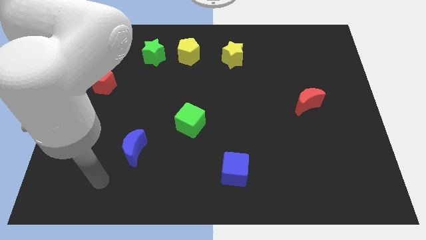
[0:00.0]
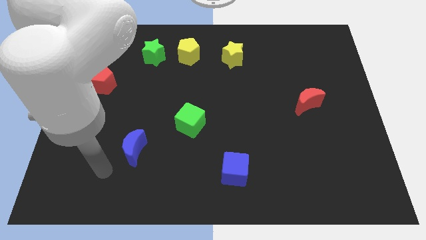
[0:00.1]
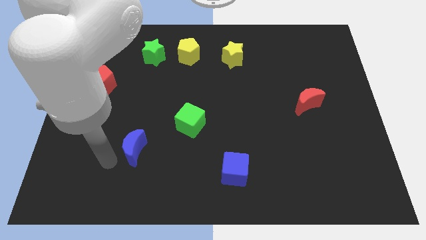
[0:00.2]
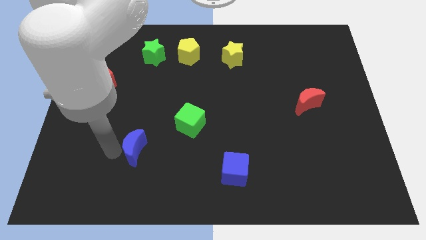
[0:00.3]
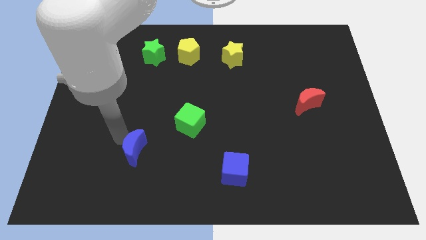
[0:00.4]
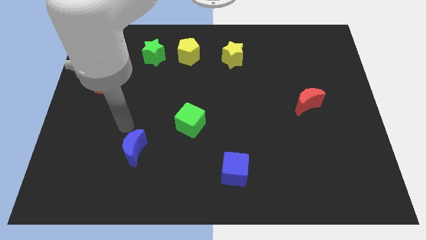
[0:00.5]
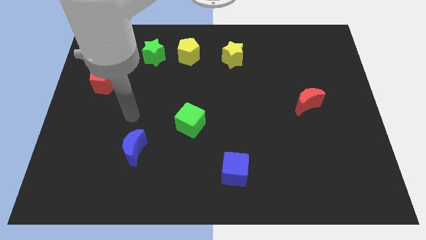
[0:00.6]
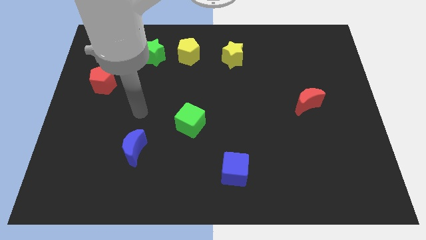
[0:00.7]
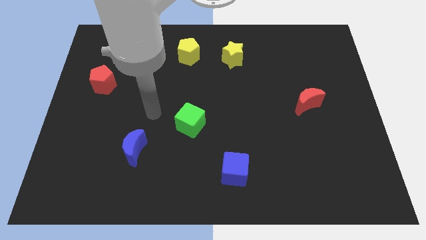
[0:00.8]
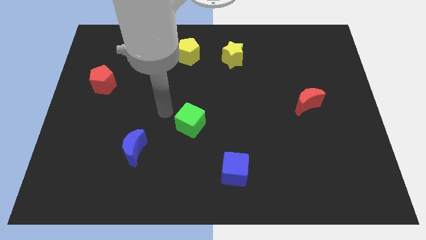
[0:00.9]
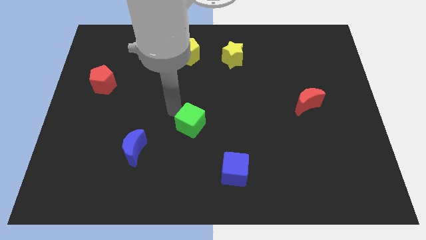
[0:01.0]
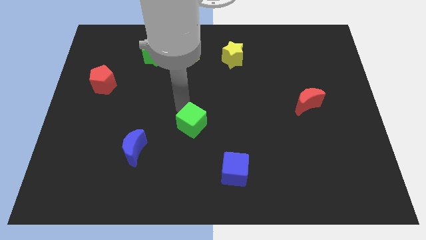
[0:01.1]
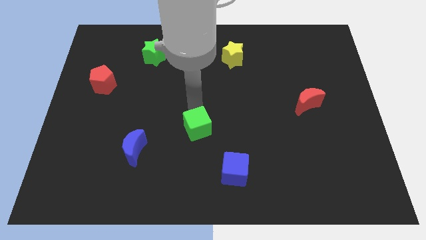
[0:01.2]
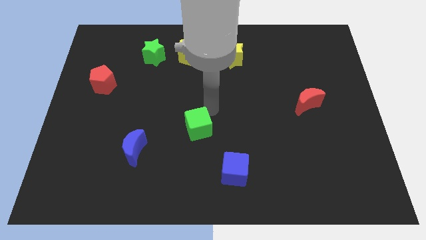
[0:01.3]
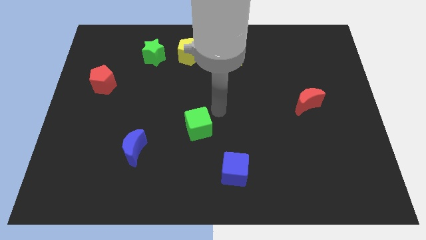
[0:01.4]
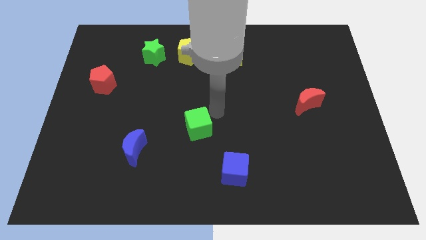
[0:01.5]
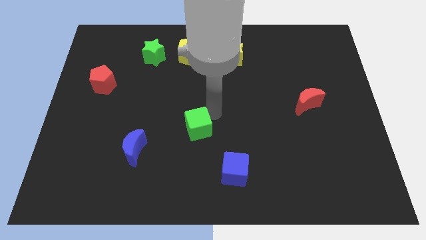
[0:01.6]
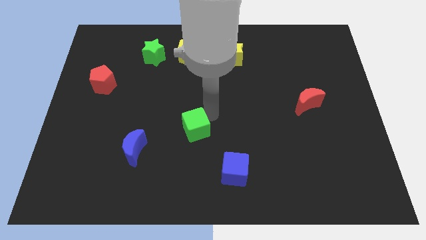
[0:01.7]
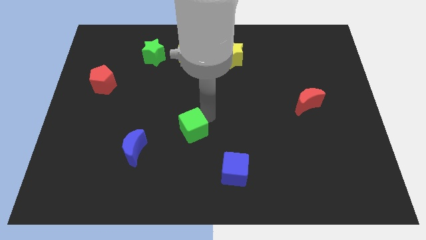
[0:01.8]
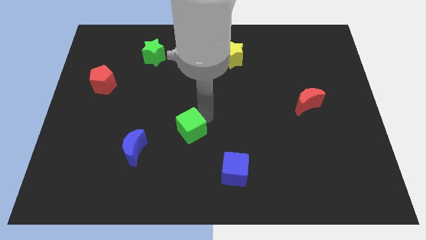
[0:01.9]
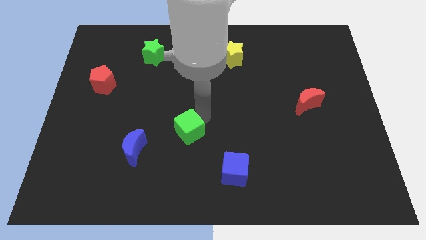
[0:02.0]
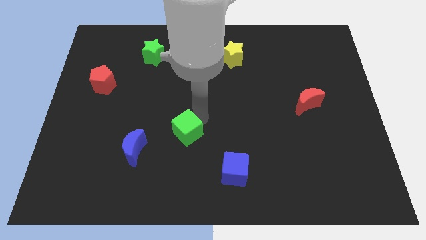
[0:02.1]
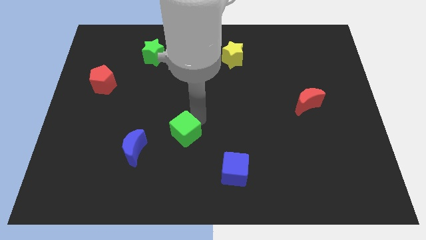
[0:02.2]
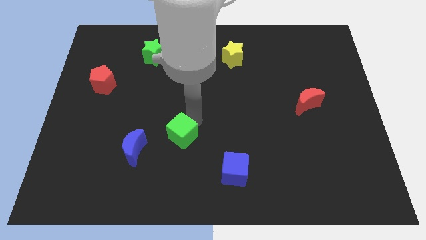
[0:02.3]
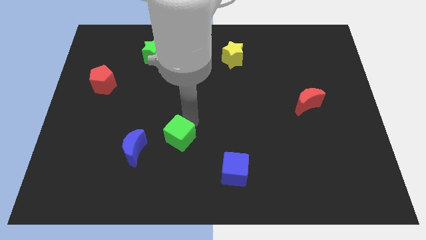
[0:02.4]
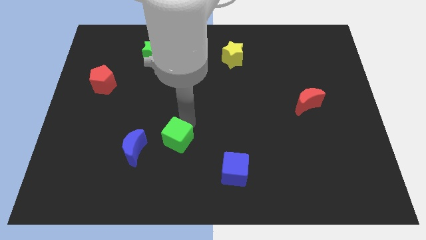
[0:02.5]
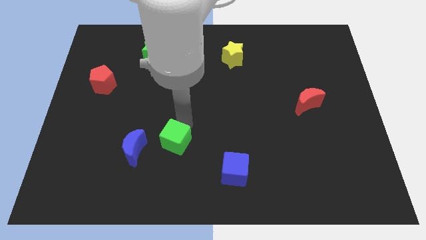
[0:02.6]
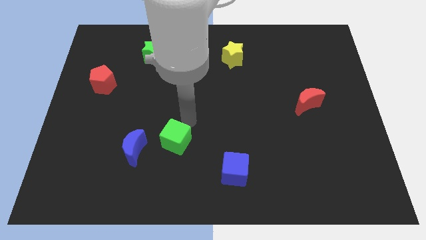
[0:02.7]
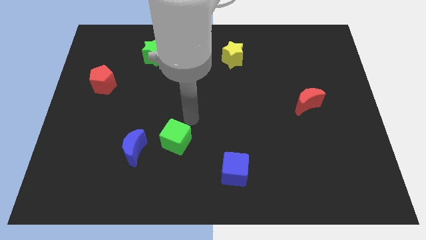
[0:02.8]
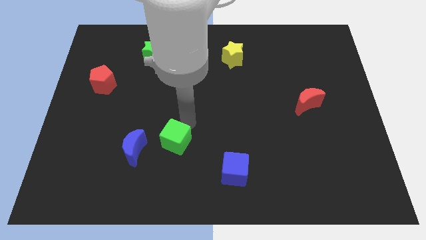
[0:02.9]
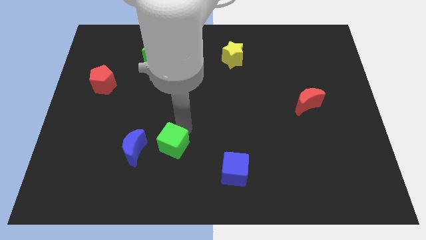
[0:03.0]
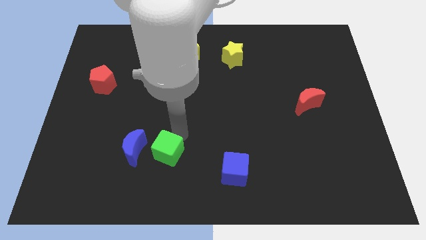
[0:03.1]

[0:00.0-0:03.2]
slightly slide the green cube downwards and left diagonally

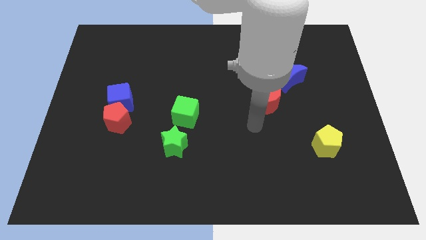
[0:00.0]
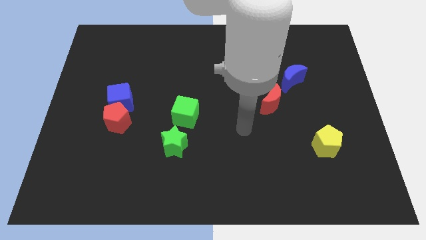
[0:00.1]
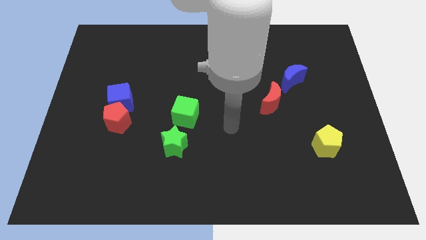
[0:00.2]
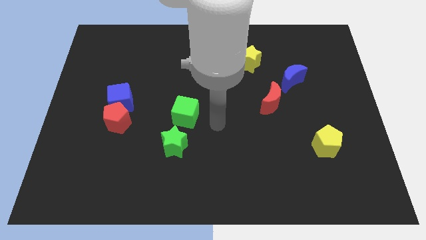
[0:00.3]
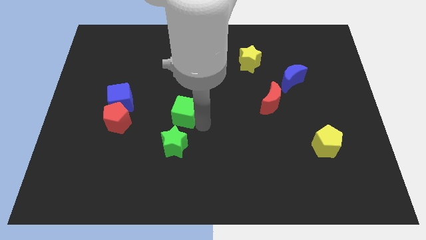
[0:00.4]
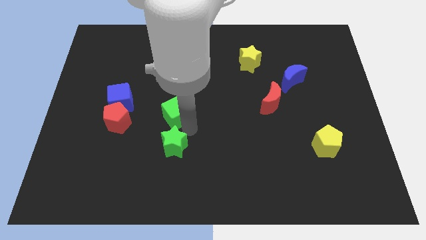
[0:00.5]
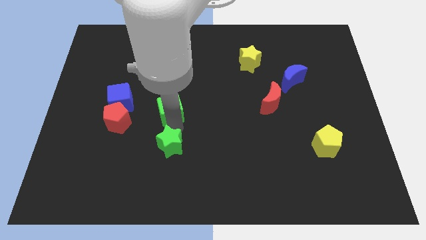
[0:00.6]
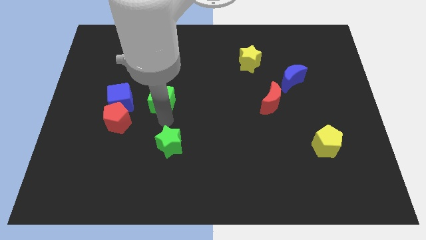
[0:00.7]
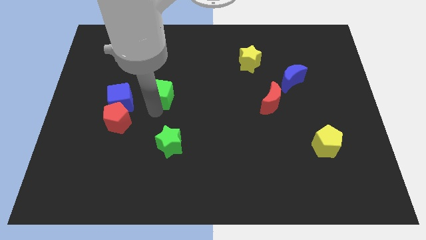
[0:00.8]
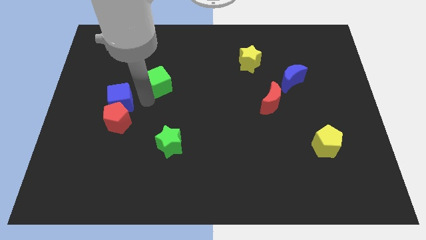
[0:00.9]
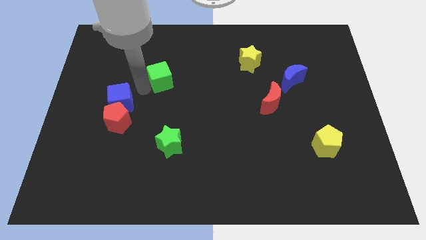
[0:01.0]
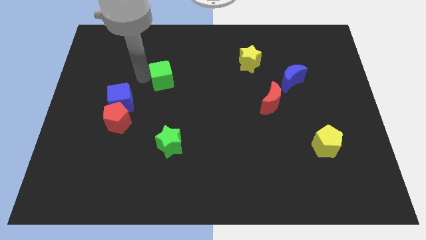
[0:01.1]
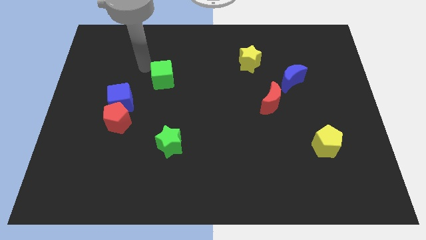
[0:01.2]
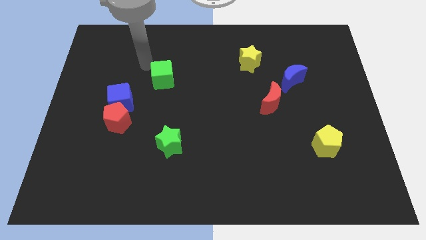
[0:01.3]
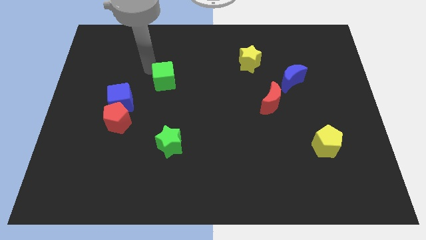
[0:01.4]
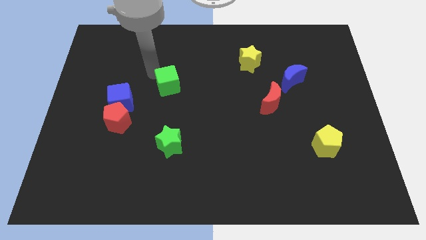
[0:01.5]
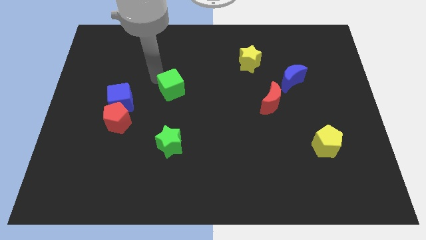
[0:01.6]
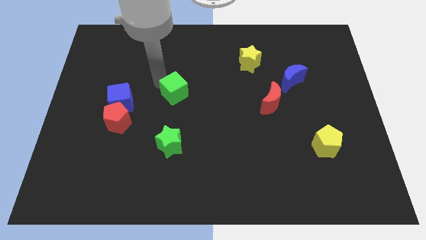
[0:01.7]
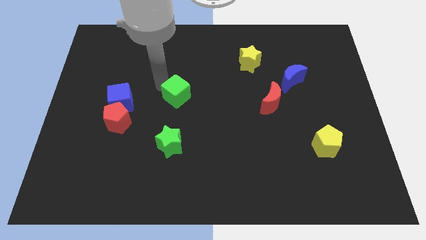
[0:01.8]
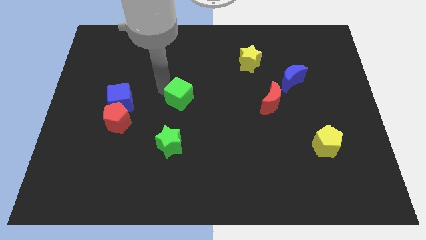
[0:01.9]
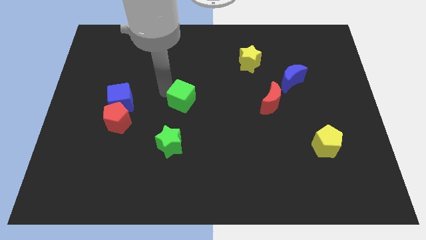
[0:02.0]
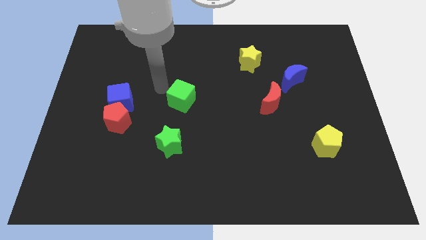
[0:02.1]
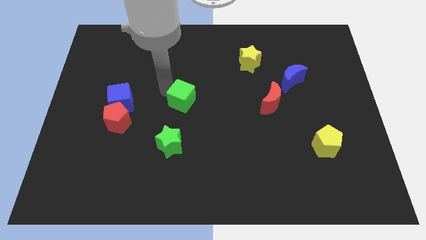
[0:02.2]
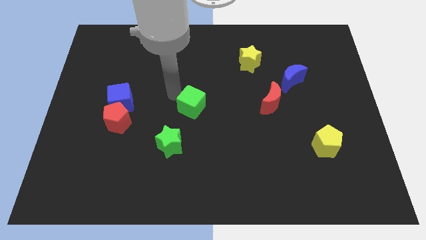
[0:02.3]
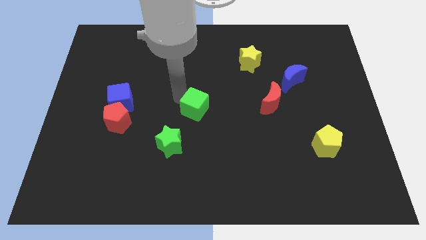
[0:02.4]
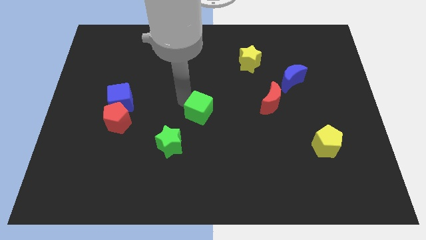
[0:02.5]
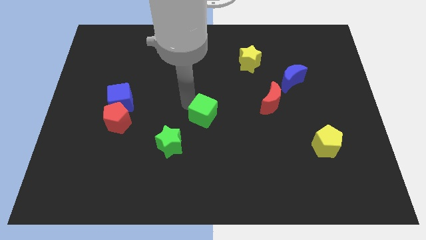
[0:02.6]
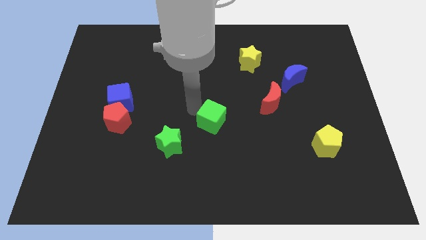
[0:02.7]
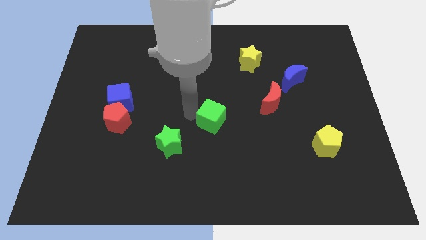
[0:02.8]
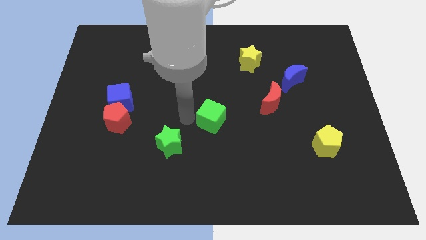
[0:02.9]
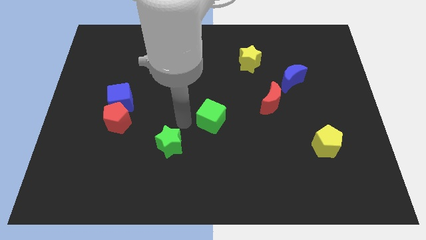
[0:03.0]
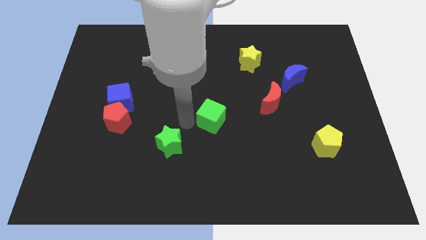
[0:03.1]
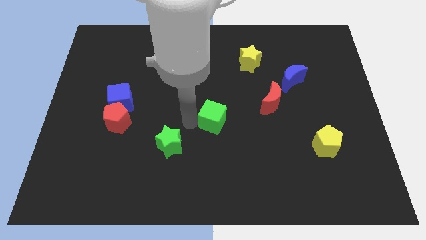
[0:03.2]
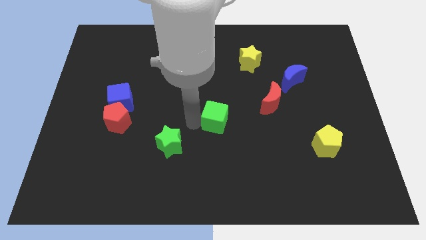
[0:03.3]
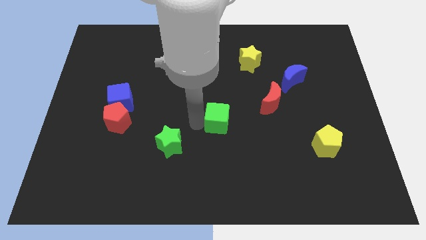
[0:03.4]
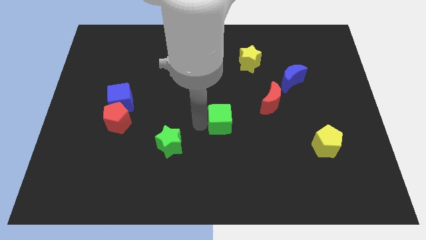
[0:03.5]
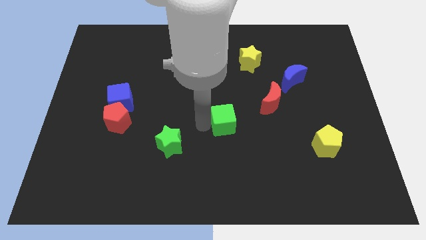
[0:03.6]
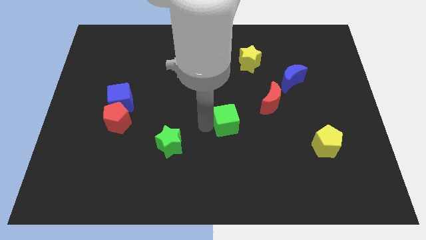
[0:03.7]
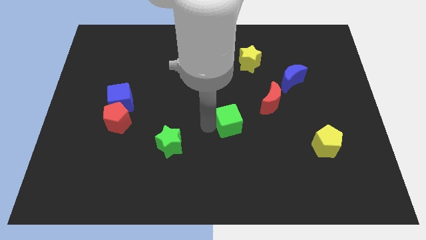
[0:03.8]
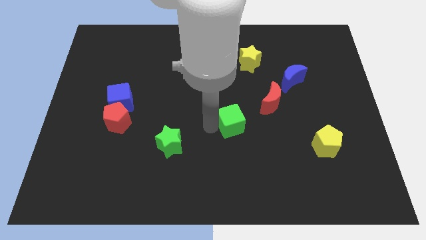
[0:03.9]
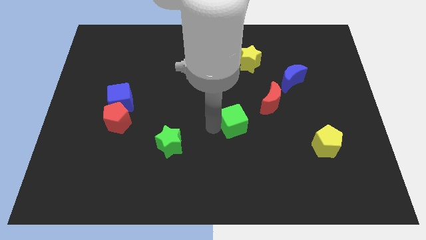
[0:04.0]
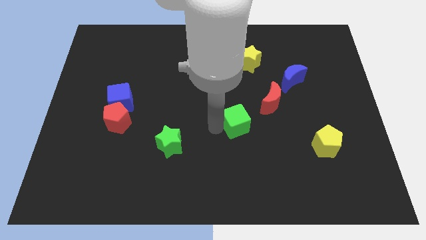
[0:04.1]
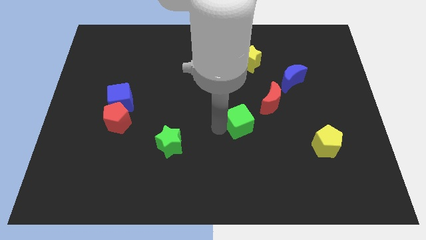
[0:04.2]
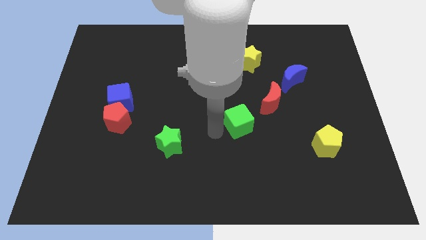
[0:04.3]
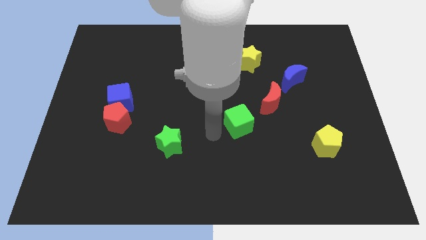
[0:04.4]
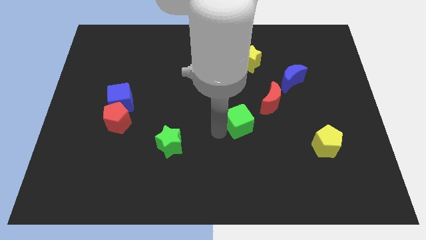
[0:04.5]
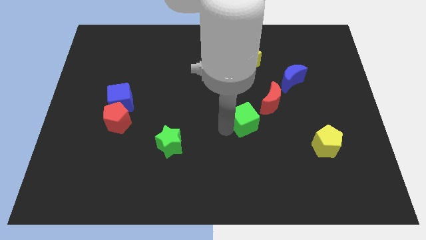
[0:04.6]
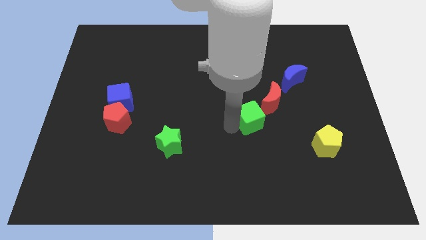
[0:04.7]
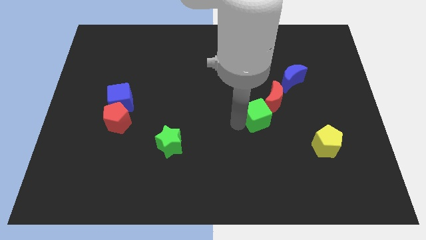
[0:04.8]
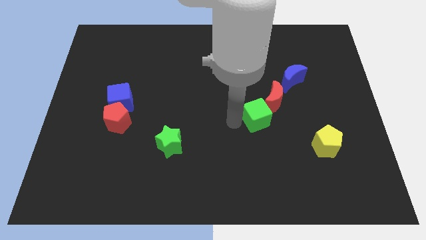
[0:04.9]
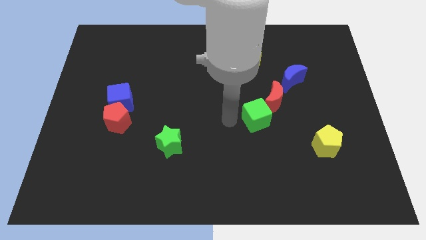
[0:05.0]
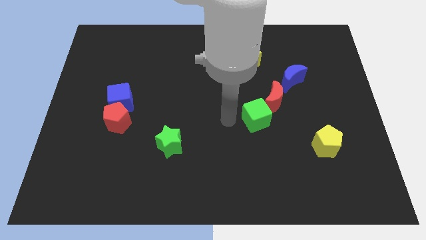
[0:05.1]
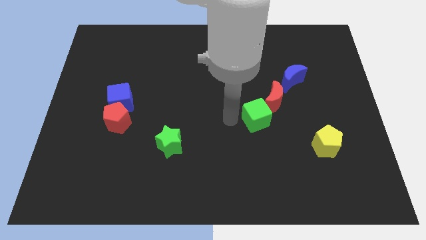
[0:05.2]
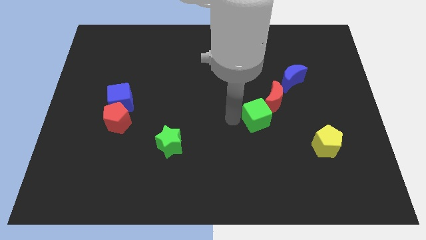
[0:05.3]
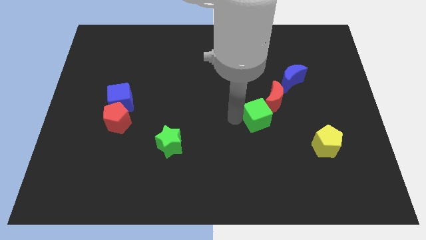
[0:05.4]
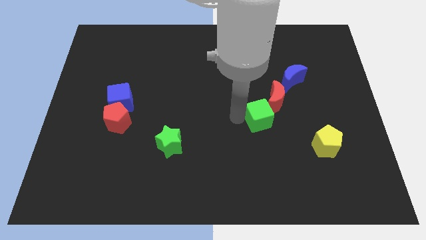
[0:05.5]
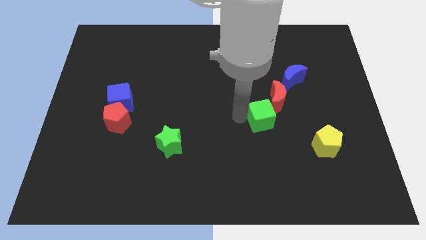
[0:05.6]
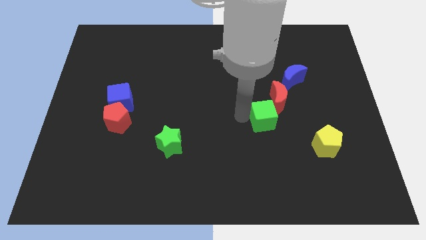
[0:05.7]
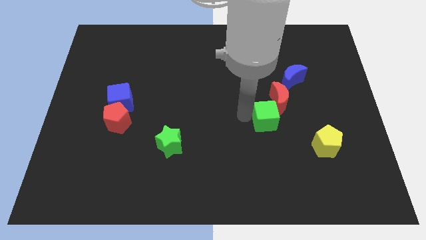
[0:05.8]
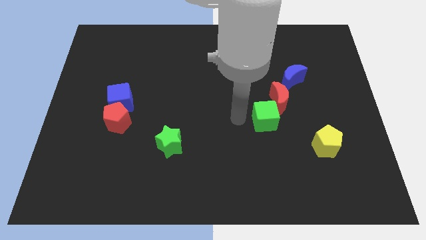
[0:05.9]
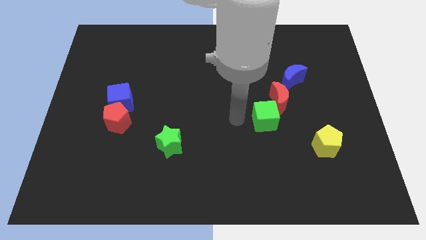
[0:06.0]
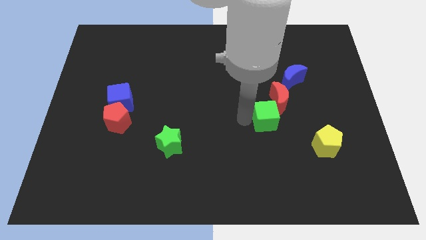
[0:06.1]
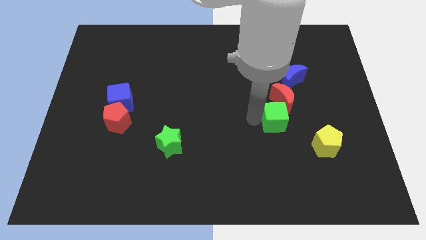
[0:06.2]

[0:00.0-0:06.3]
push the green cube to the right
